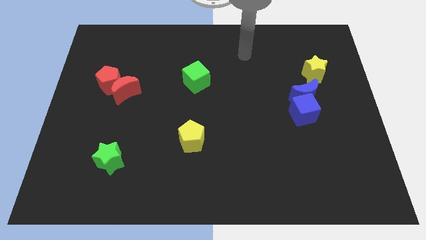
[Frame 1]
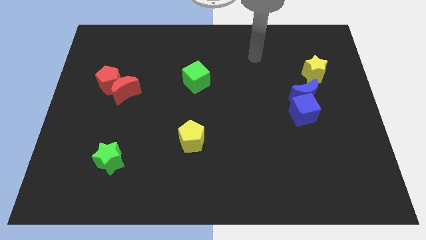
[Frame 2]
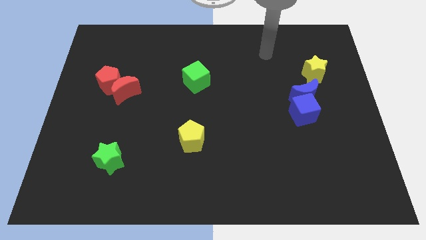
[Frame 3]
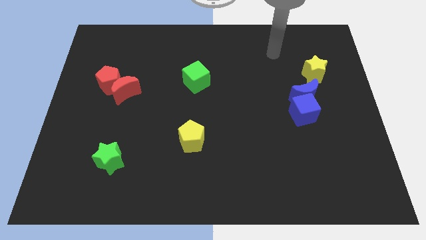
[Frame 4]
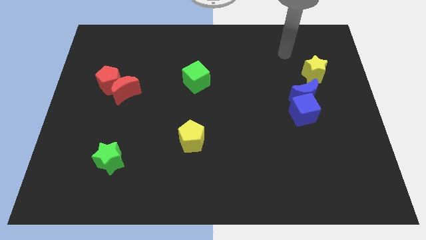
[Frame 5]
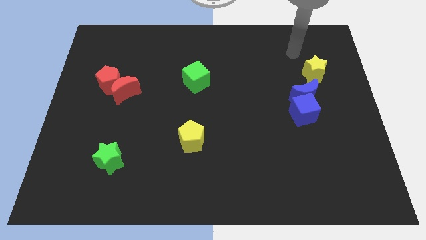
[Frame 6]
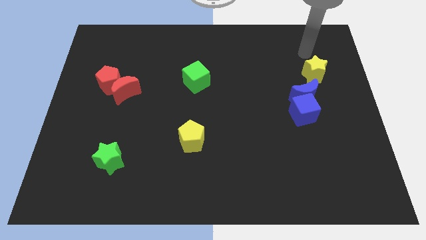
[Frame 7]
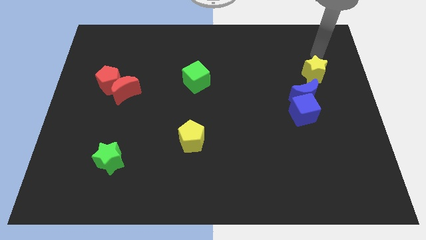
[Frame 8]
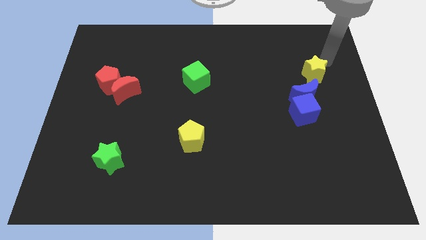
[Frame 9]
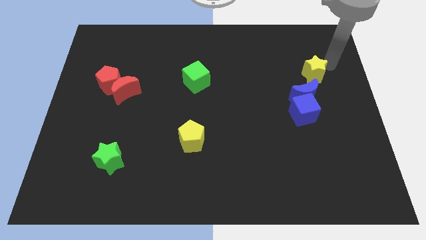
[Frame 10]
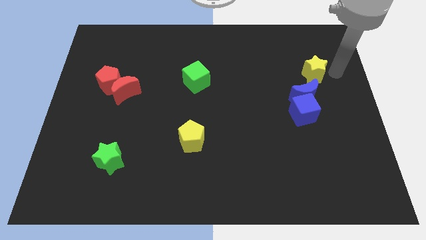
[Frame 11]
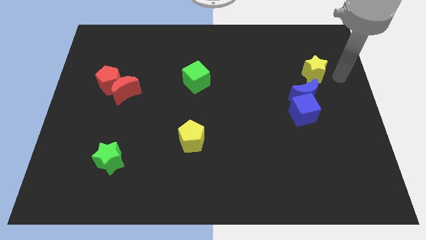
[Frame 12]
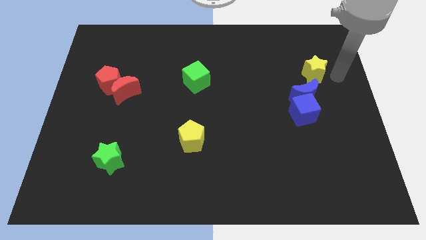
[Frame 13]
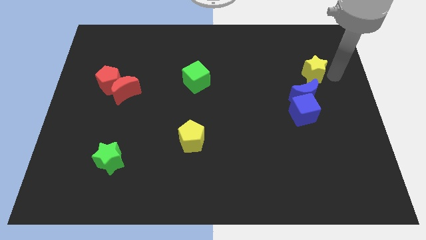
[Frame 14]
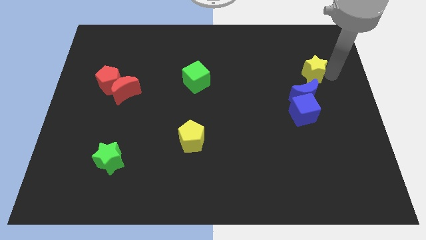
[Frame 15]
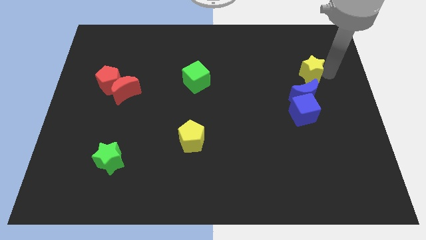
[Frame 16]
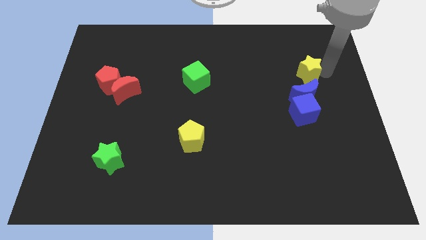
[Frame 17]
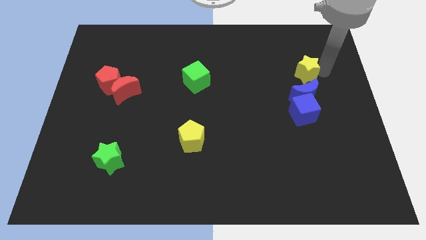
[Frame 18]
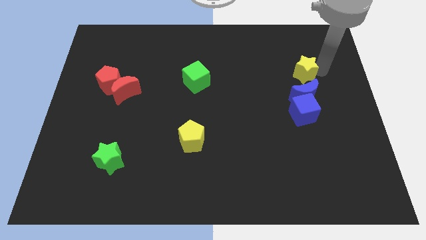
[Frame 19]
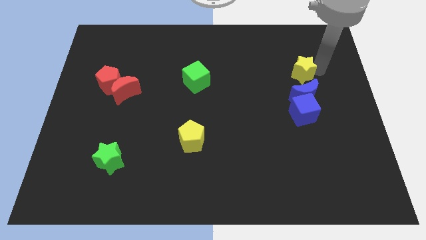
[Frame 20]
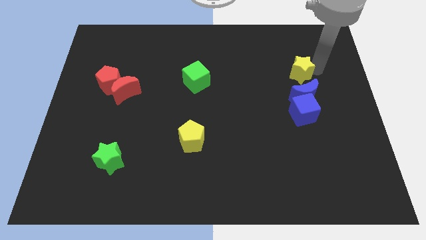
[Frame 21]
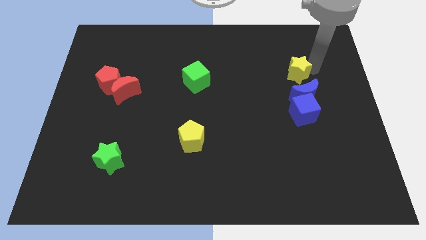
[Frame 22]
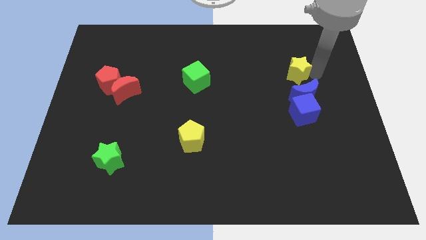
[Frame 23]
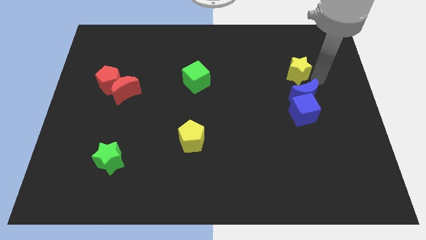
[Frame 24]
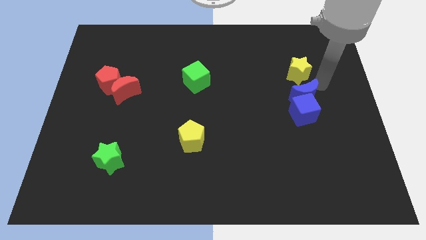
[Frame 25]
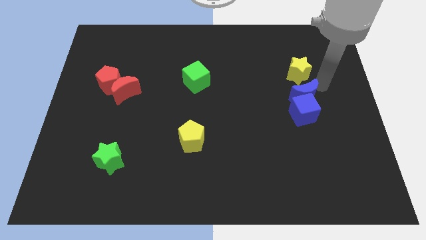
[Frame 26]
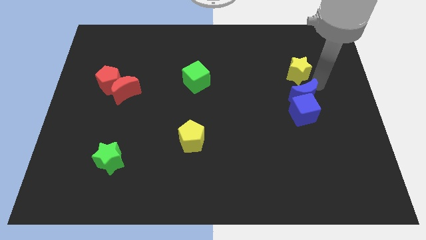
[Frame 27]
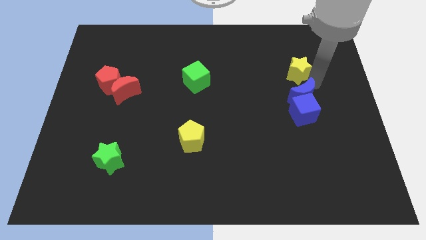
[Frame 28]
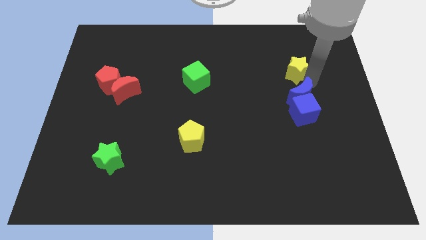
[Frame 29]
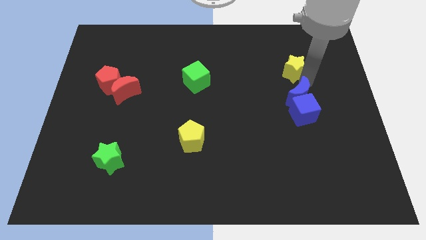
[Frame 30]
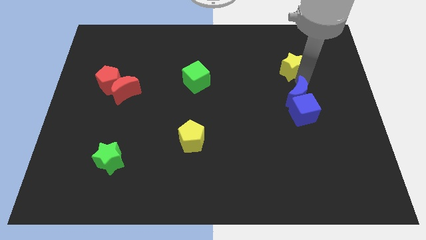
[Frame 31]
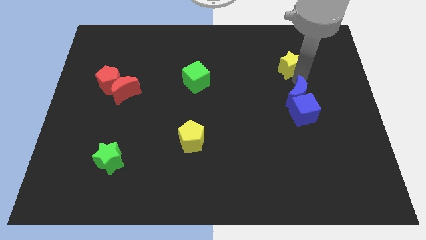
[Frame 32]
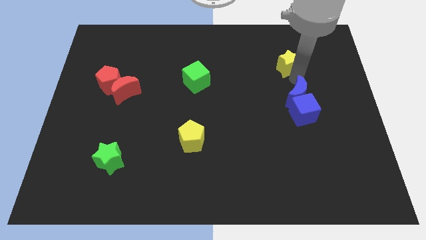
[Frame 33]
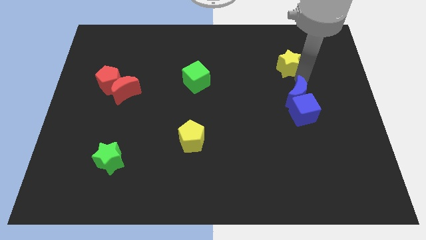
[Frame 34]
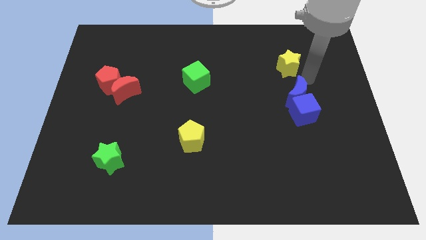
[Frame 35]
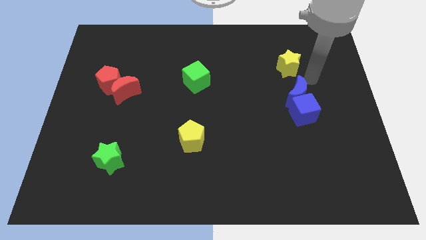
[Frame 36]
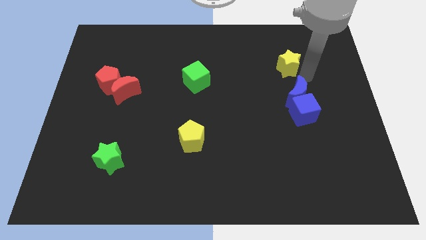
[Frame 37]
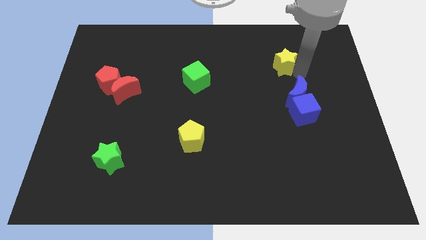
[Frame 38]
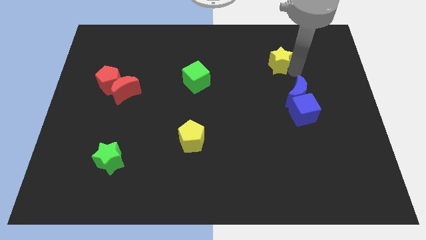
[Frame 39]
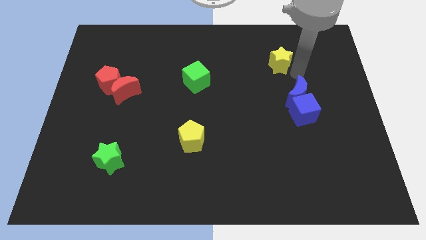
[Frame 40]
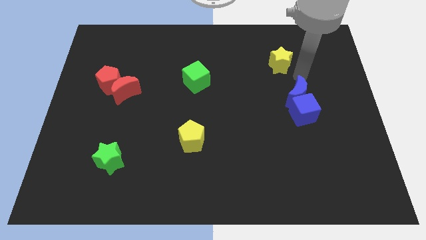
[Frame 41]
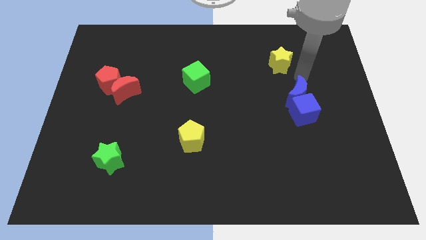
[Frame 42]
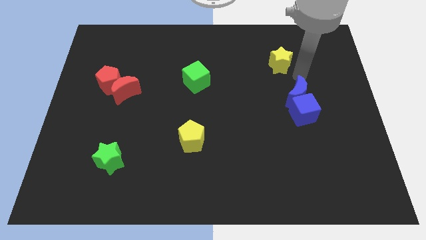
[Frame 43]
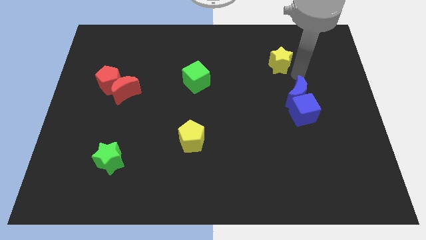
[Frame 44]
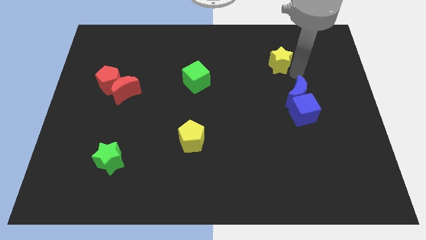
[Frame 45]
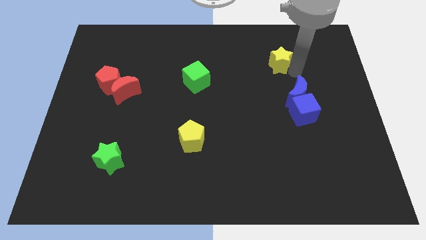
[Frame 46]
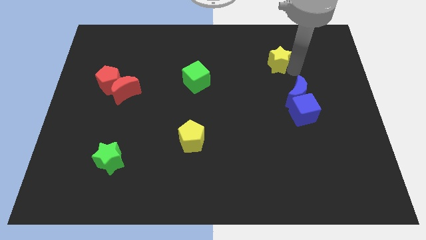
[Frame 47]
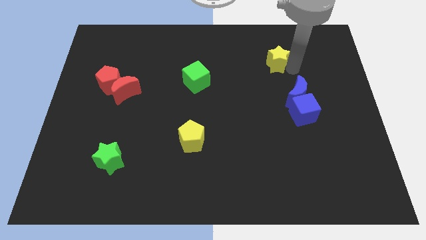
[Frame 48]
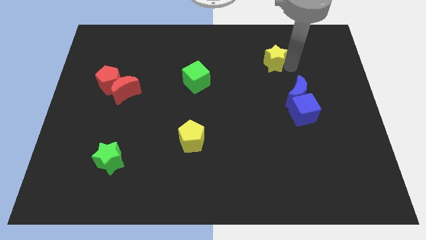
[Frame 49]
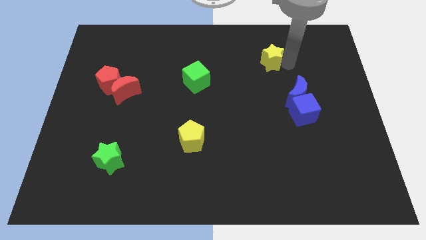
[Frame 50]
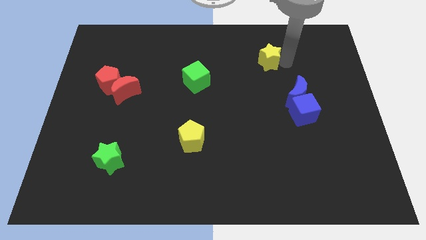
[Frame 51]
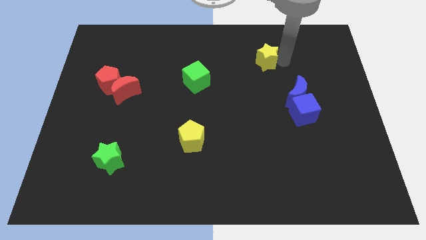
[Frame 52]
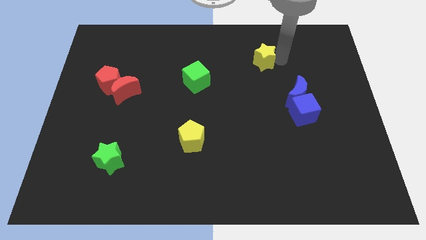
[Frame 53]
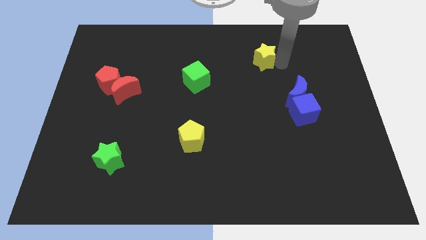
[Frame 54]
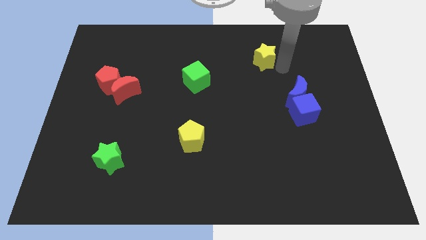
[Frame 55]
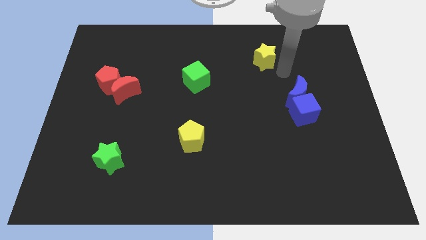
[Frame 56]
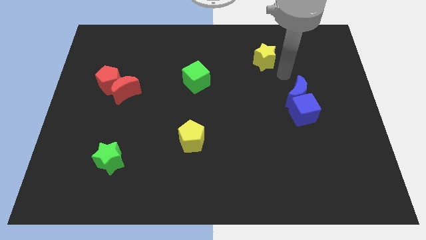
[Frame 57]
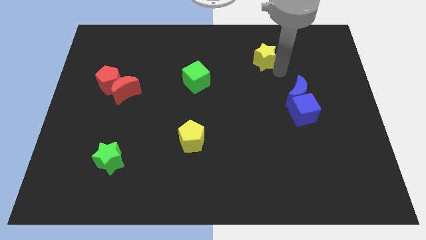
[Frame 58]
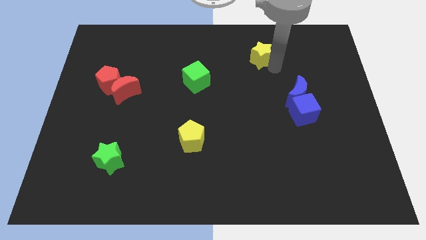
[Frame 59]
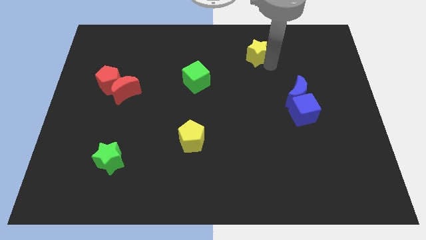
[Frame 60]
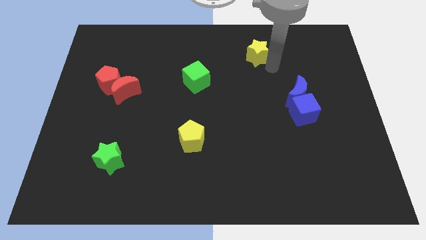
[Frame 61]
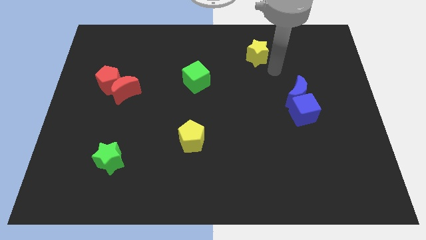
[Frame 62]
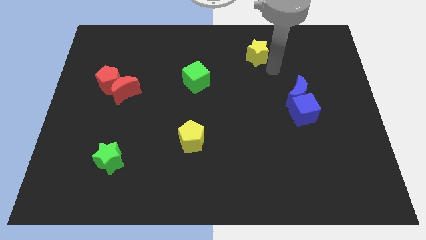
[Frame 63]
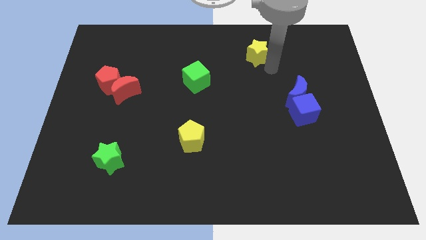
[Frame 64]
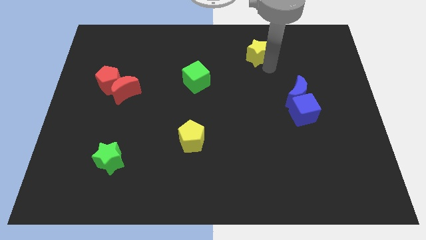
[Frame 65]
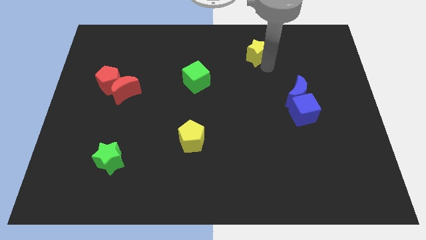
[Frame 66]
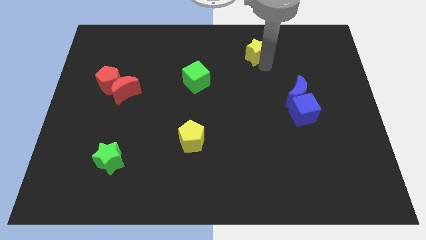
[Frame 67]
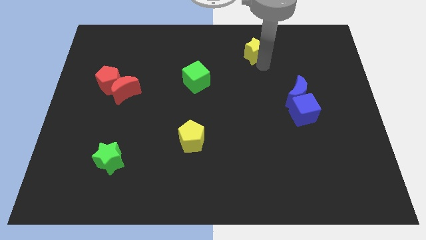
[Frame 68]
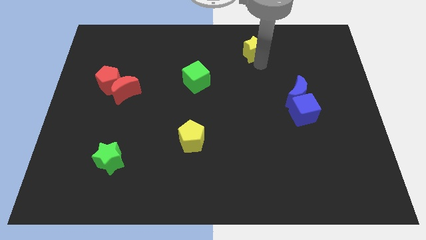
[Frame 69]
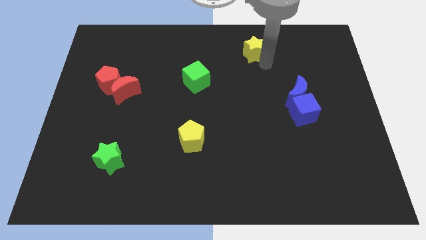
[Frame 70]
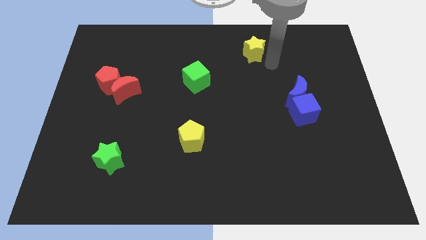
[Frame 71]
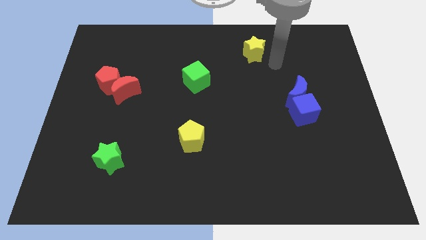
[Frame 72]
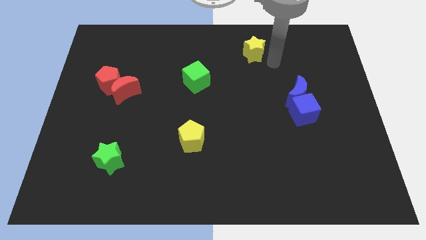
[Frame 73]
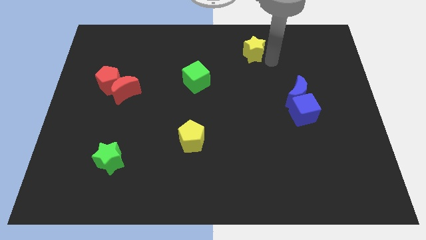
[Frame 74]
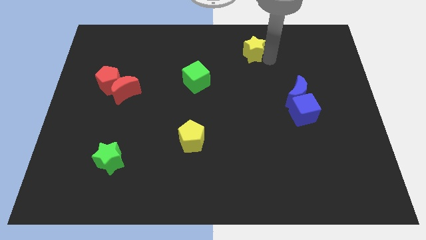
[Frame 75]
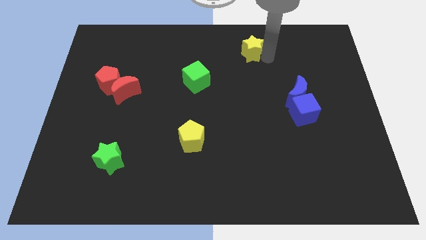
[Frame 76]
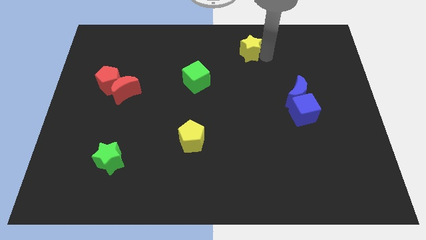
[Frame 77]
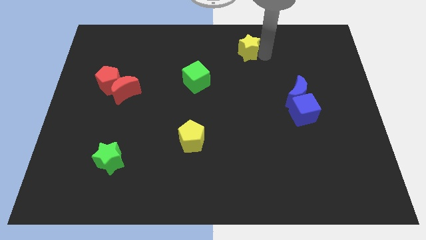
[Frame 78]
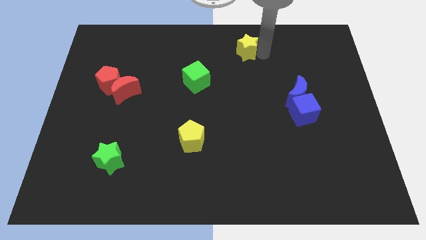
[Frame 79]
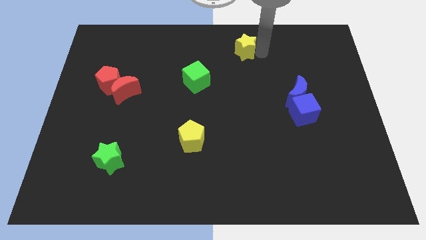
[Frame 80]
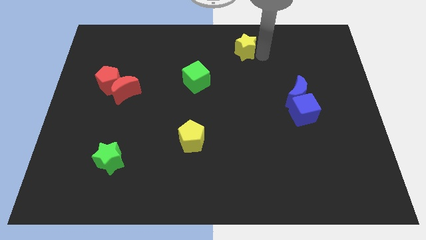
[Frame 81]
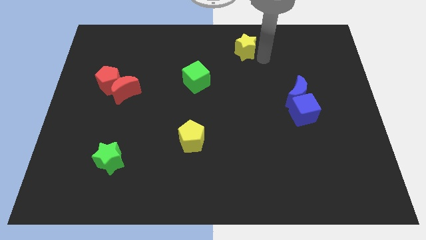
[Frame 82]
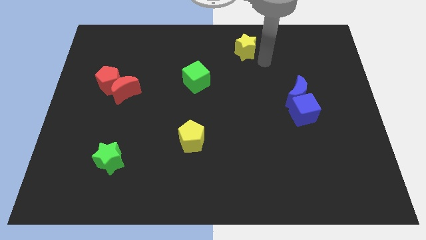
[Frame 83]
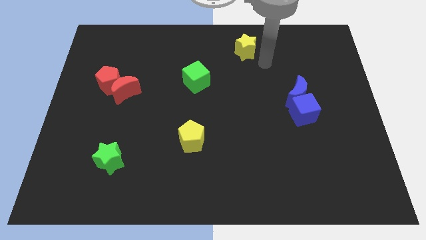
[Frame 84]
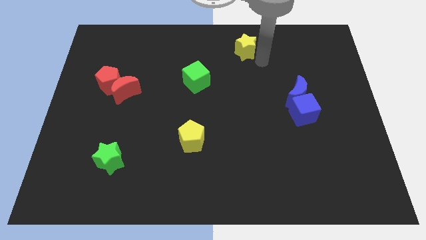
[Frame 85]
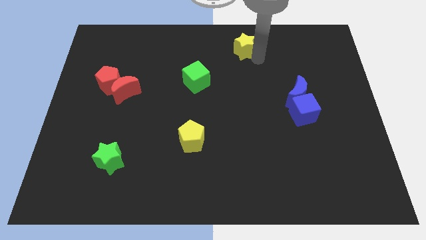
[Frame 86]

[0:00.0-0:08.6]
move the yellow star to the towards your base
